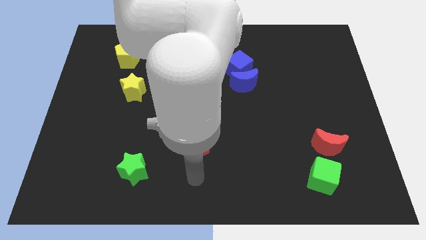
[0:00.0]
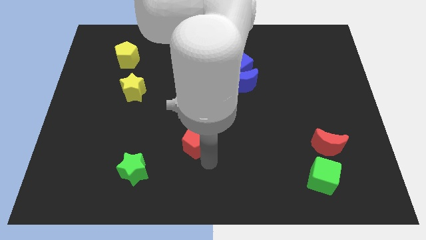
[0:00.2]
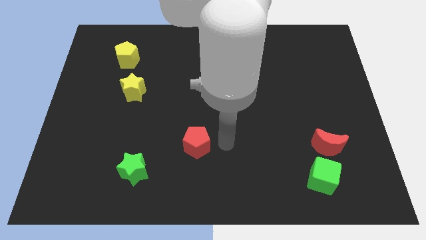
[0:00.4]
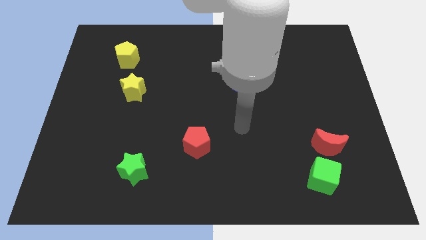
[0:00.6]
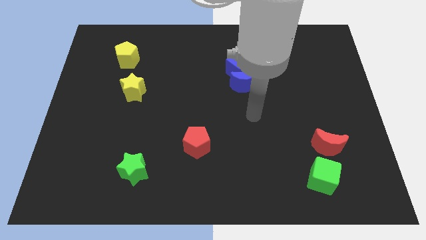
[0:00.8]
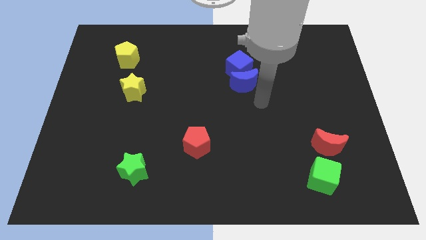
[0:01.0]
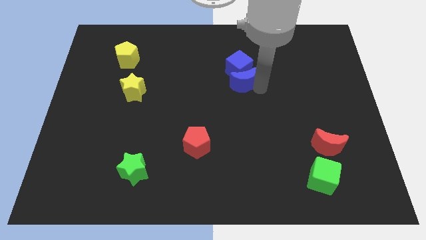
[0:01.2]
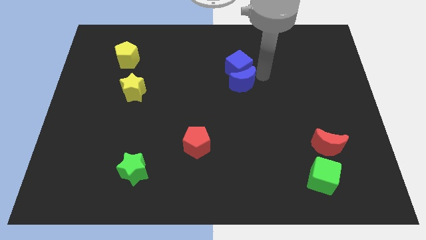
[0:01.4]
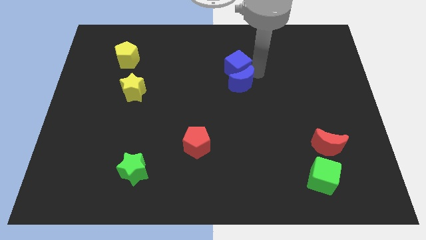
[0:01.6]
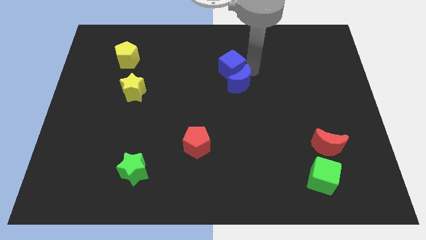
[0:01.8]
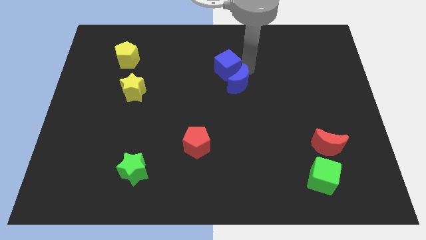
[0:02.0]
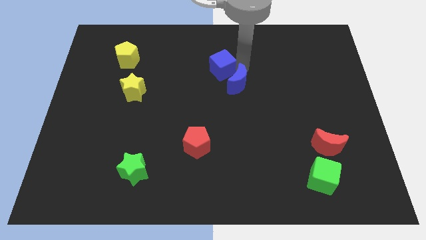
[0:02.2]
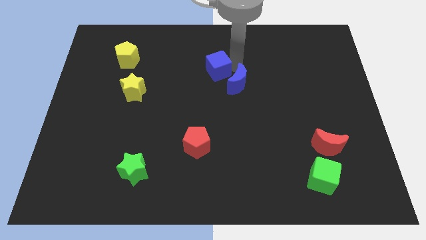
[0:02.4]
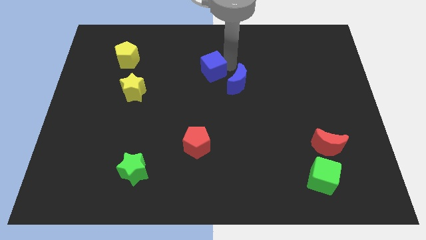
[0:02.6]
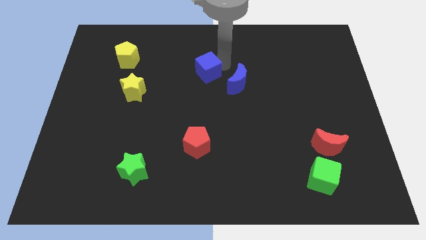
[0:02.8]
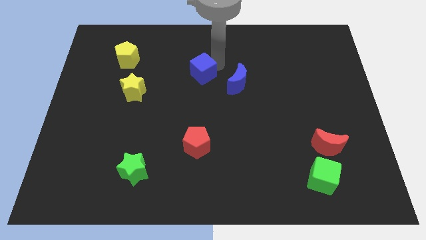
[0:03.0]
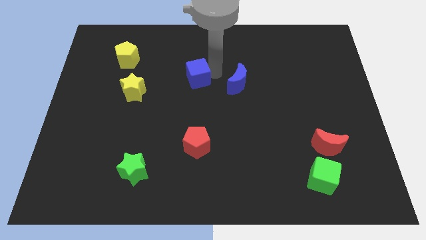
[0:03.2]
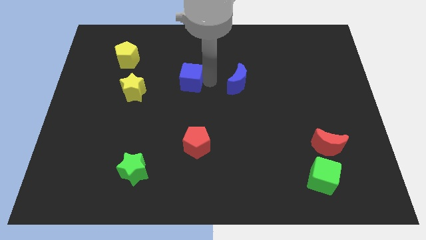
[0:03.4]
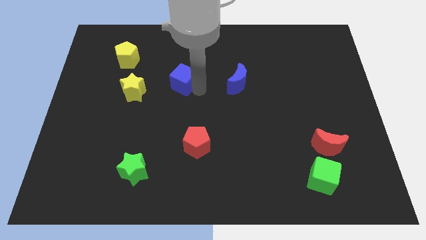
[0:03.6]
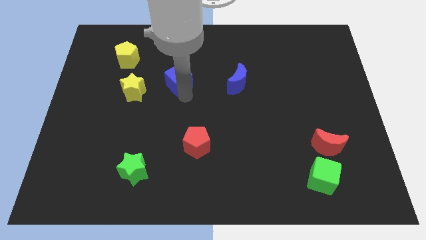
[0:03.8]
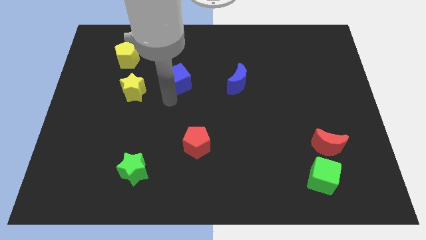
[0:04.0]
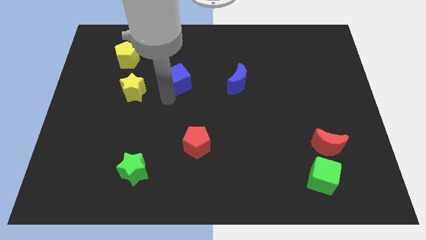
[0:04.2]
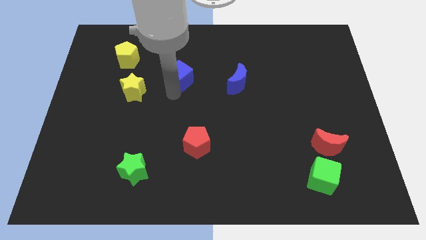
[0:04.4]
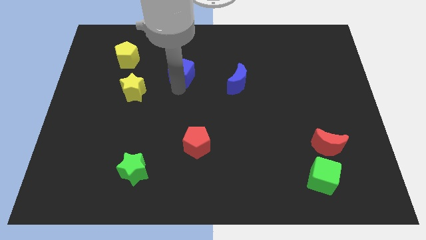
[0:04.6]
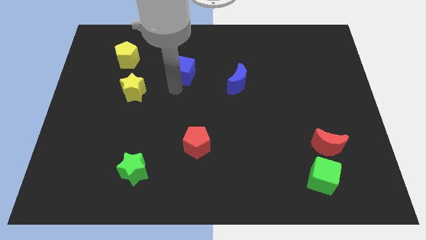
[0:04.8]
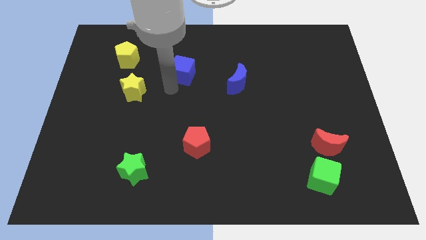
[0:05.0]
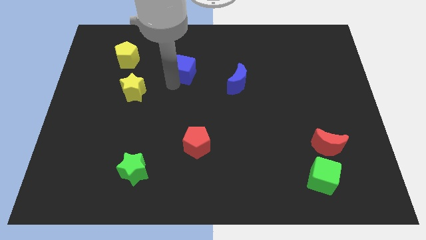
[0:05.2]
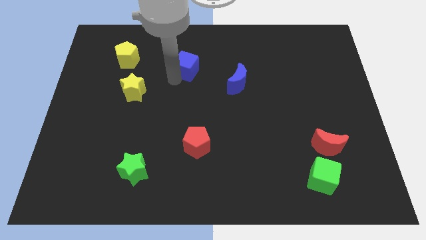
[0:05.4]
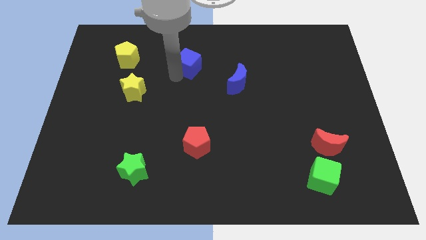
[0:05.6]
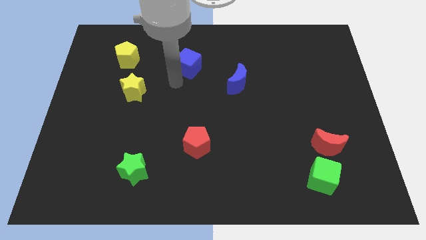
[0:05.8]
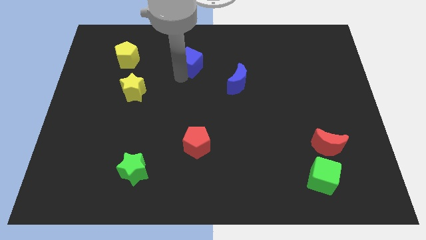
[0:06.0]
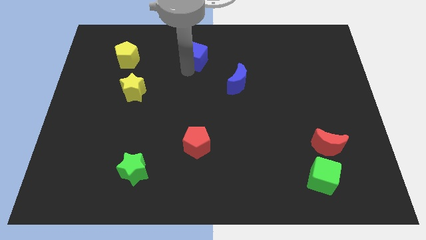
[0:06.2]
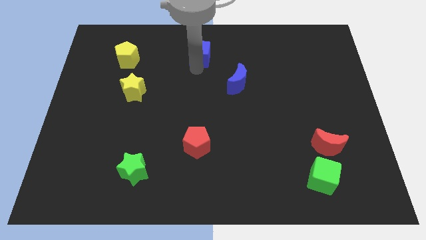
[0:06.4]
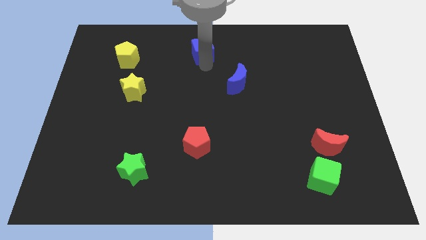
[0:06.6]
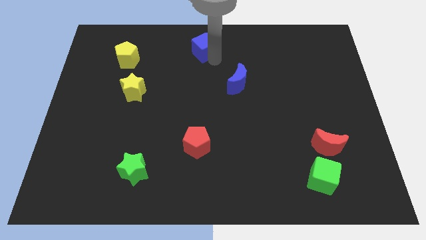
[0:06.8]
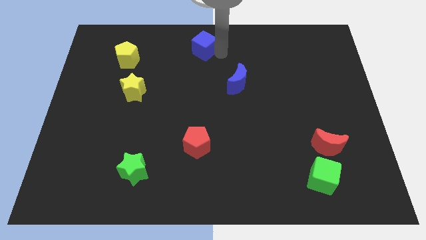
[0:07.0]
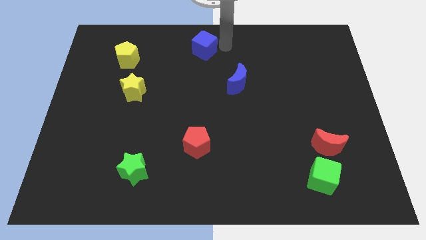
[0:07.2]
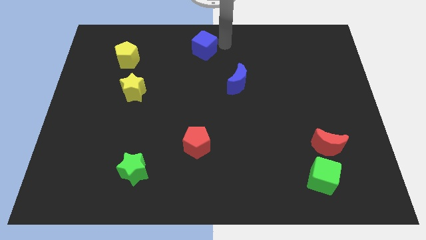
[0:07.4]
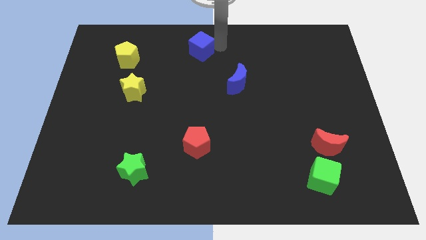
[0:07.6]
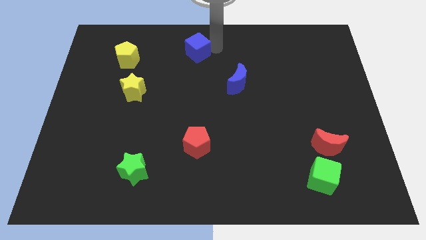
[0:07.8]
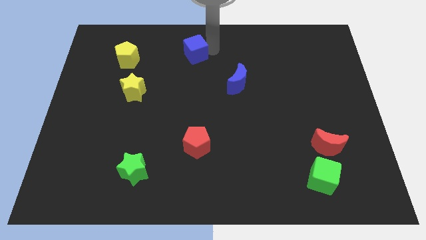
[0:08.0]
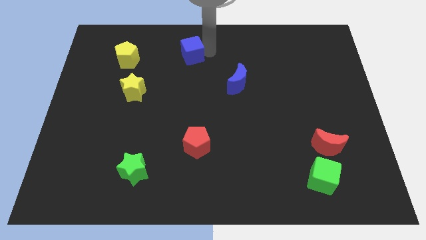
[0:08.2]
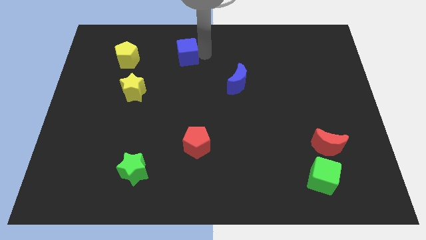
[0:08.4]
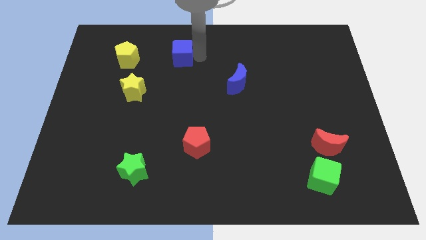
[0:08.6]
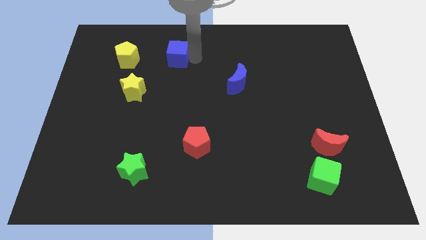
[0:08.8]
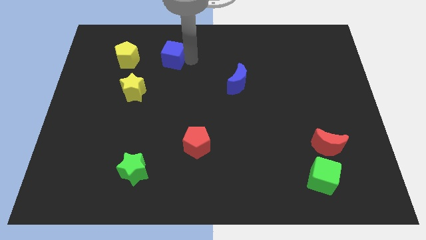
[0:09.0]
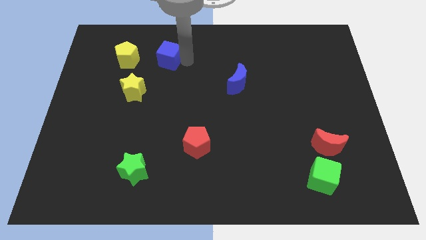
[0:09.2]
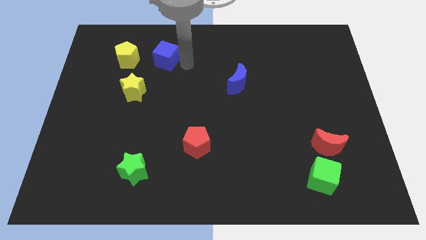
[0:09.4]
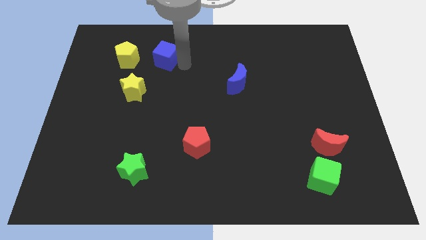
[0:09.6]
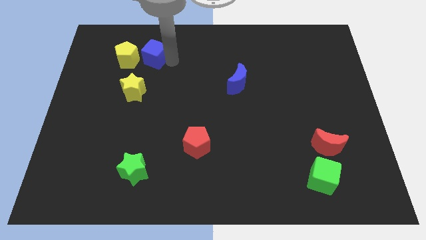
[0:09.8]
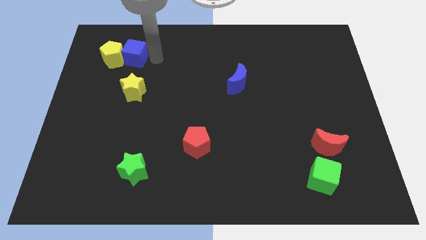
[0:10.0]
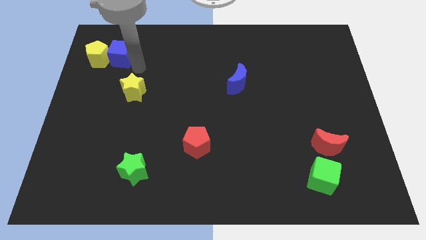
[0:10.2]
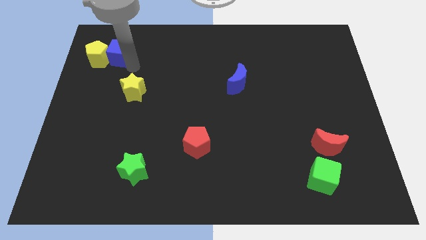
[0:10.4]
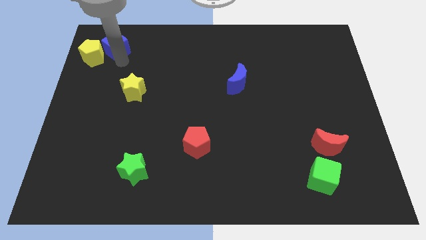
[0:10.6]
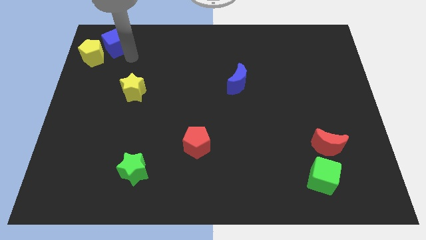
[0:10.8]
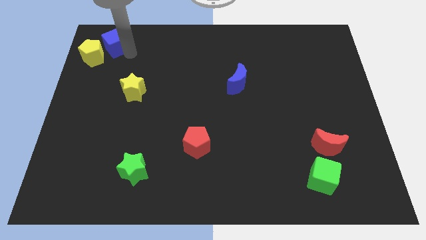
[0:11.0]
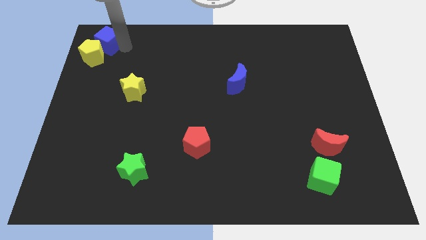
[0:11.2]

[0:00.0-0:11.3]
slide the blue cube to the top left

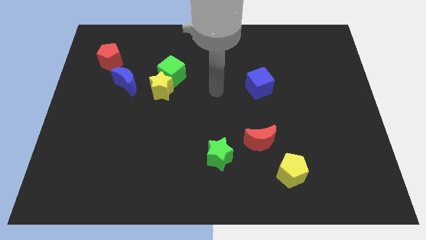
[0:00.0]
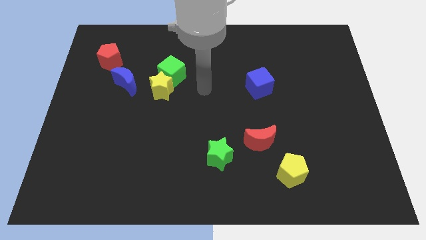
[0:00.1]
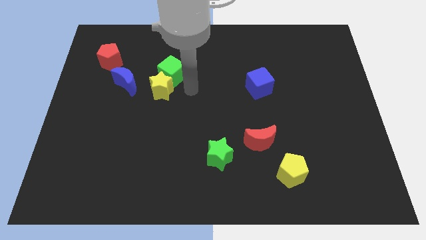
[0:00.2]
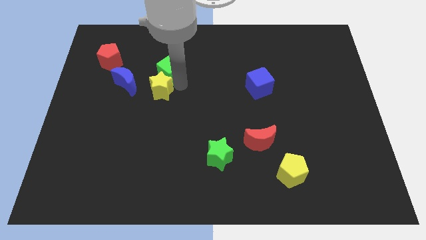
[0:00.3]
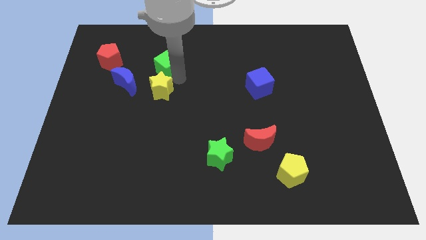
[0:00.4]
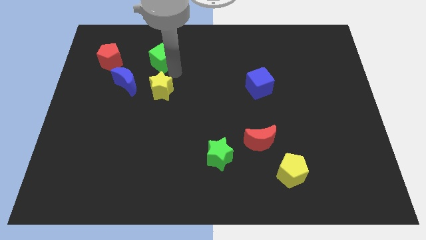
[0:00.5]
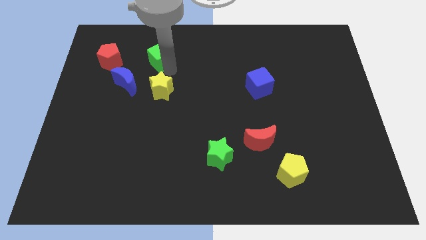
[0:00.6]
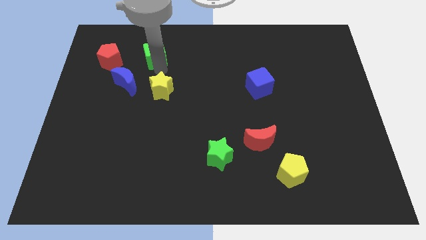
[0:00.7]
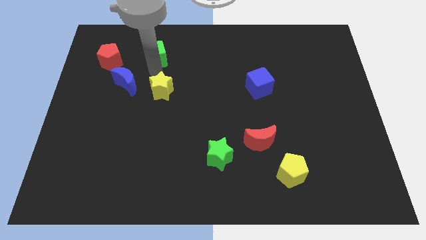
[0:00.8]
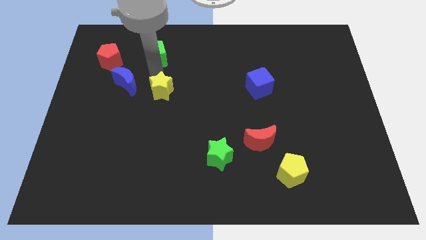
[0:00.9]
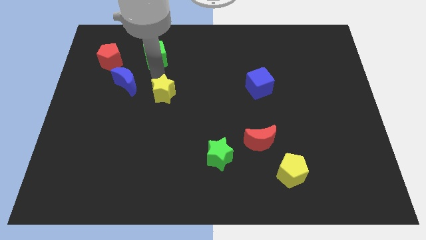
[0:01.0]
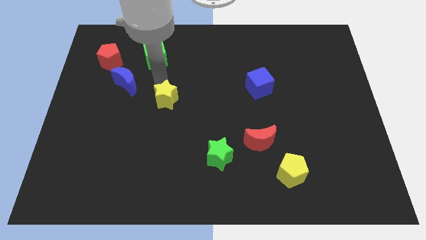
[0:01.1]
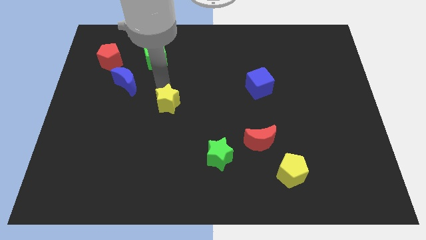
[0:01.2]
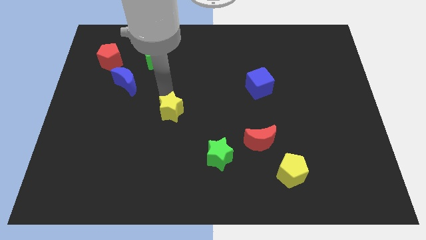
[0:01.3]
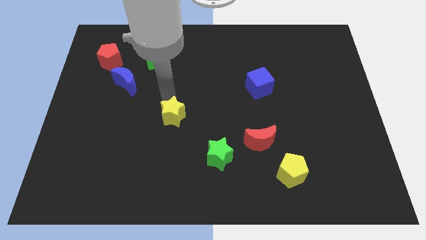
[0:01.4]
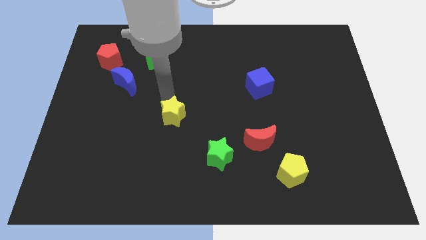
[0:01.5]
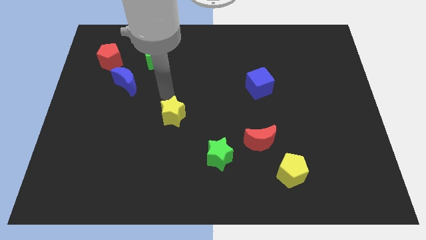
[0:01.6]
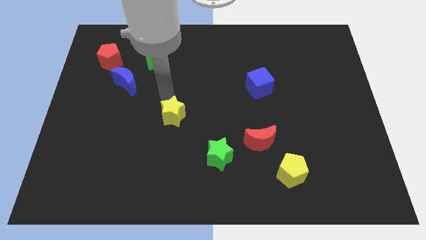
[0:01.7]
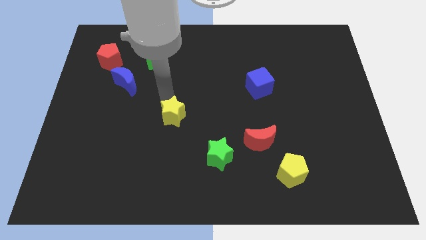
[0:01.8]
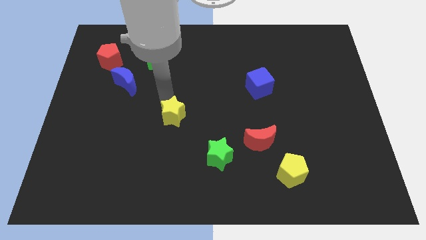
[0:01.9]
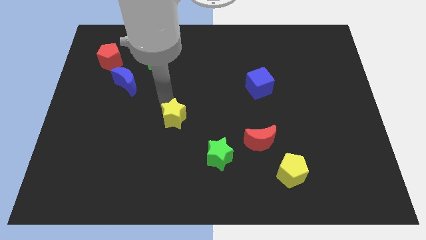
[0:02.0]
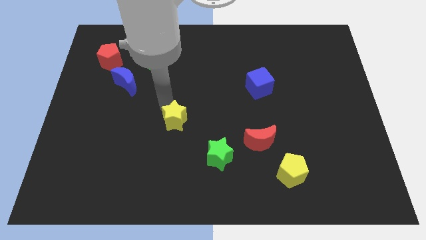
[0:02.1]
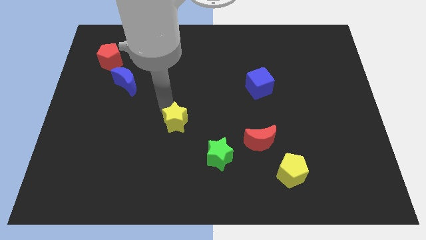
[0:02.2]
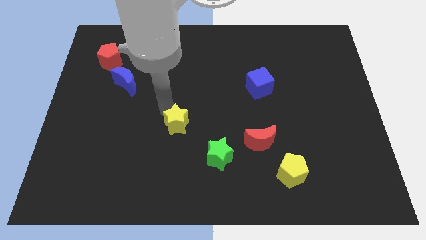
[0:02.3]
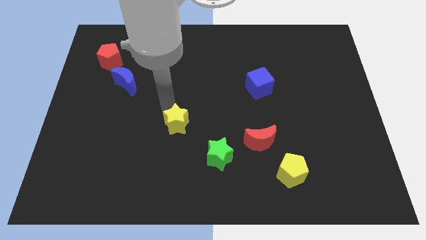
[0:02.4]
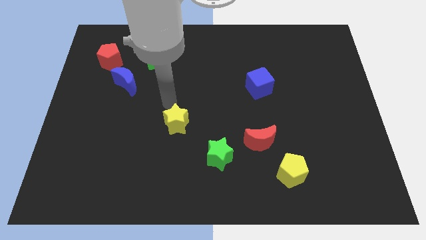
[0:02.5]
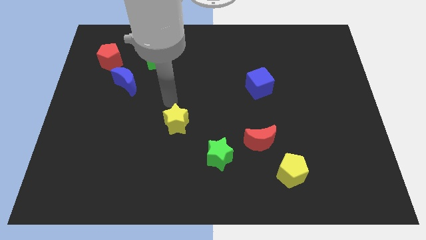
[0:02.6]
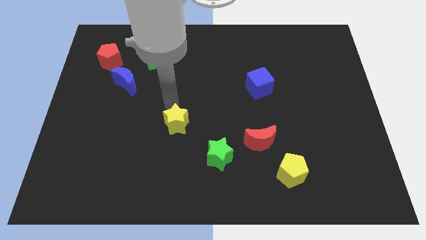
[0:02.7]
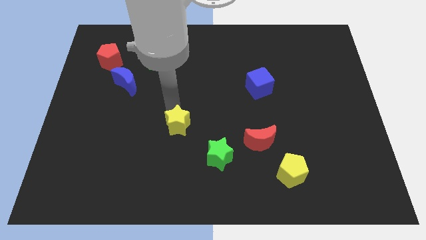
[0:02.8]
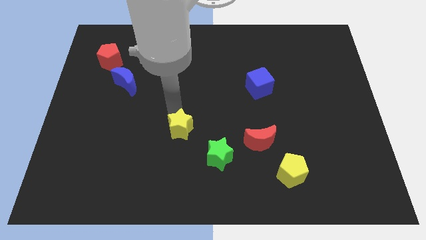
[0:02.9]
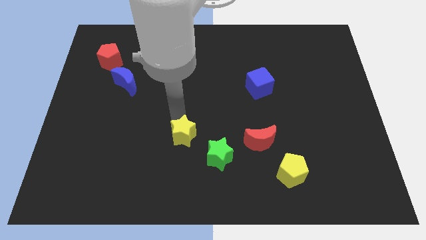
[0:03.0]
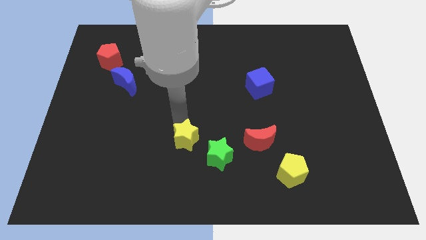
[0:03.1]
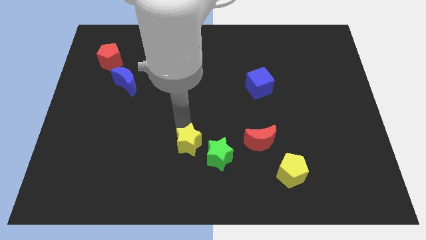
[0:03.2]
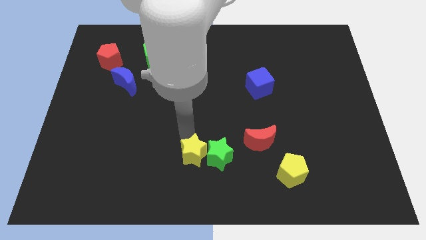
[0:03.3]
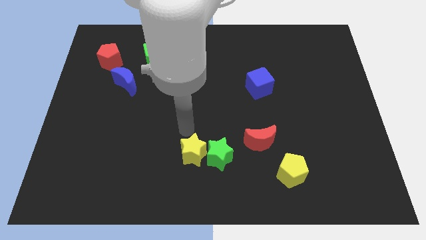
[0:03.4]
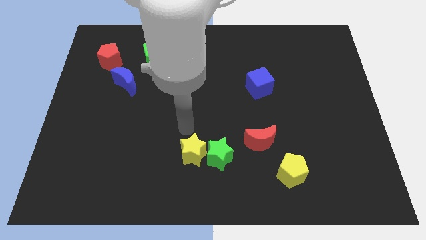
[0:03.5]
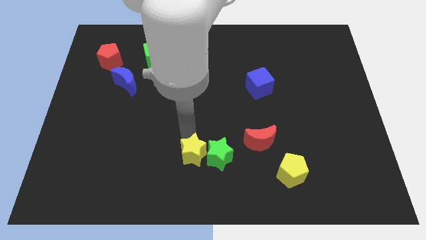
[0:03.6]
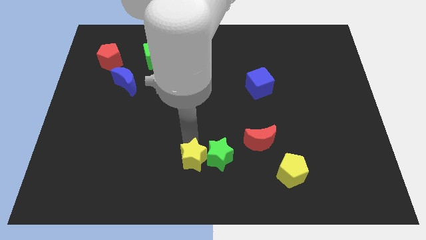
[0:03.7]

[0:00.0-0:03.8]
push the yellow star to the bottom
